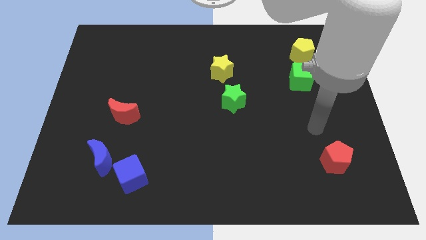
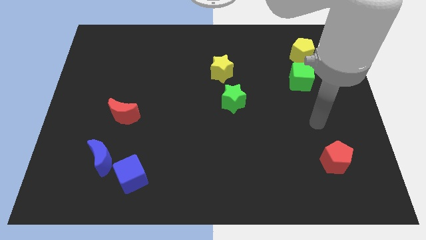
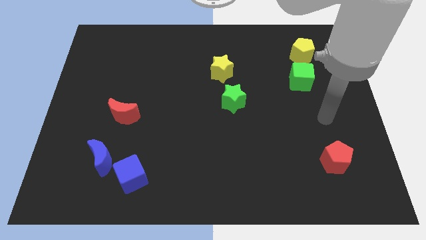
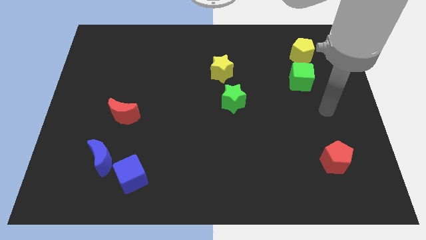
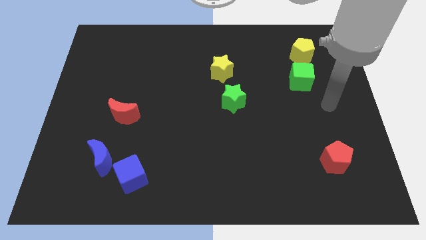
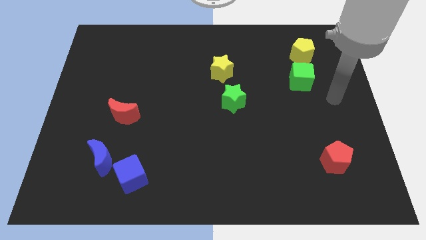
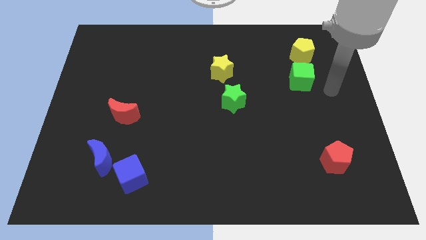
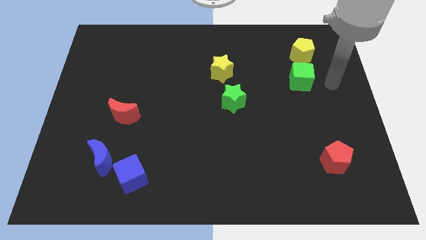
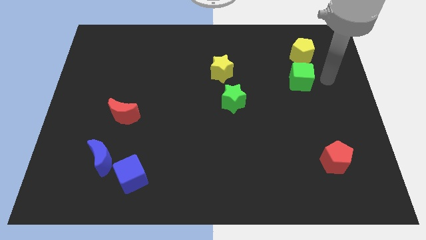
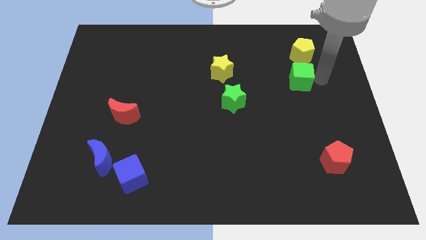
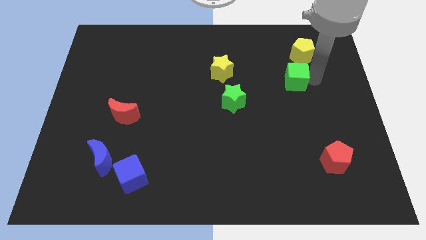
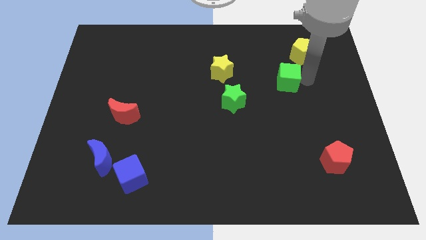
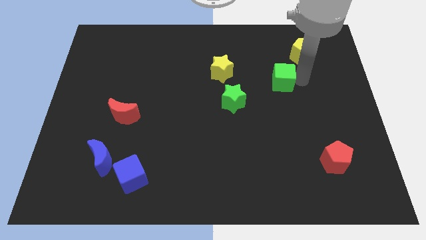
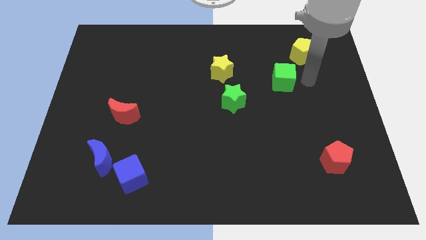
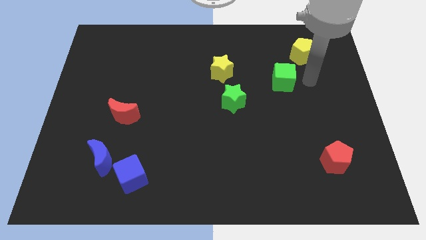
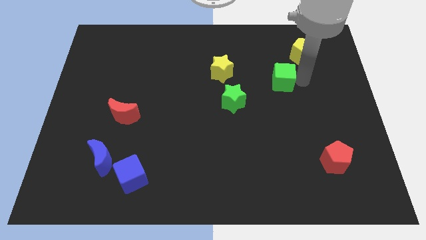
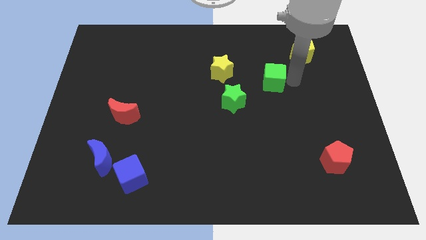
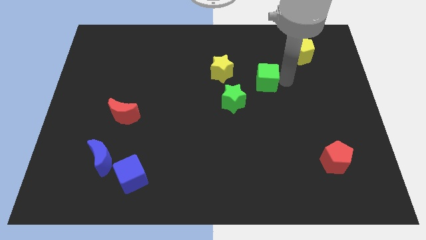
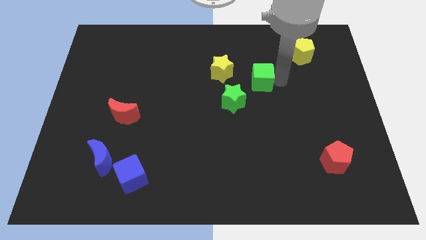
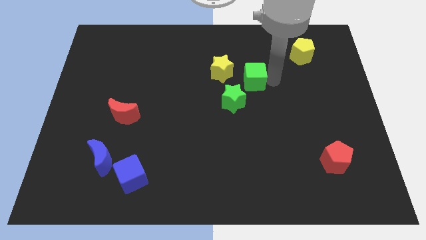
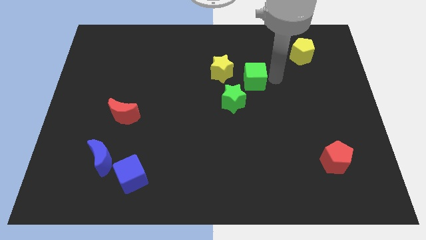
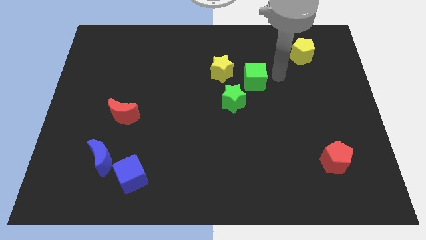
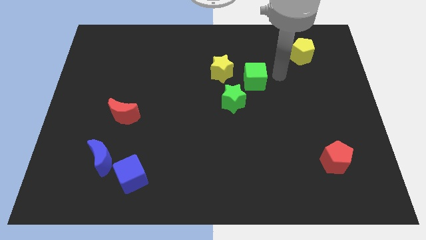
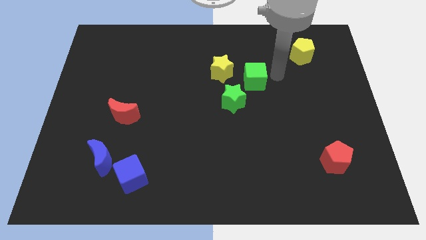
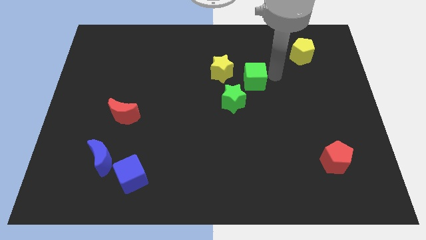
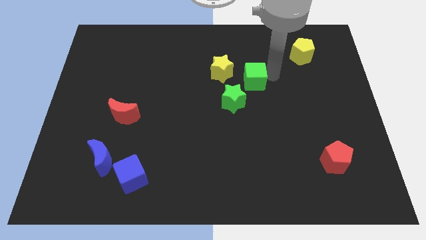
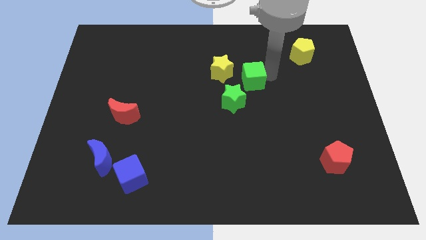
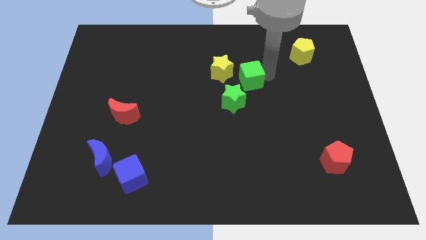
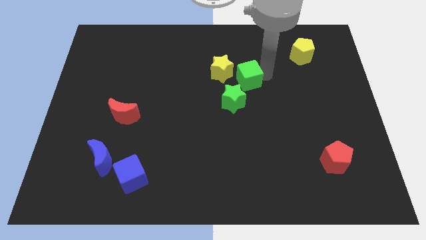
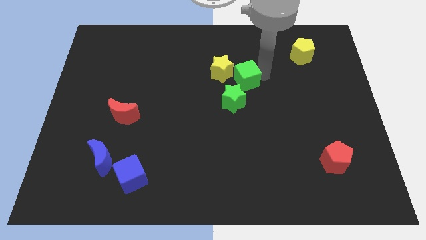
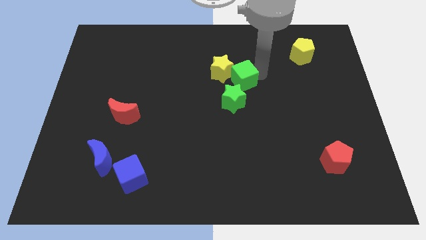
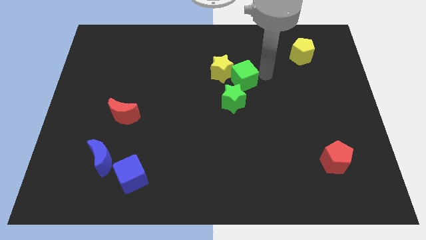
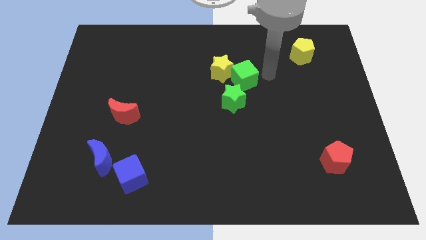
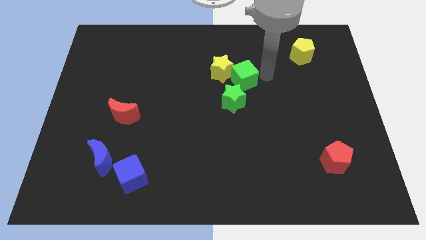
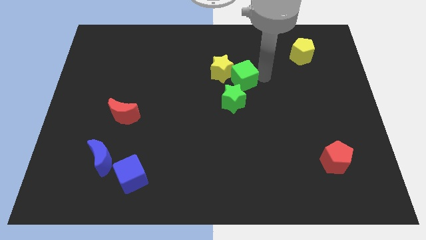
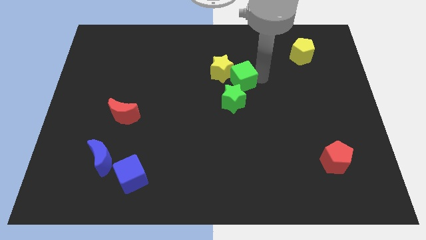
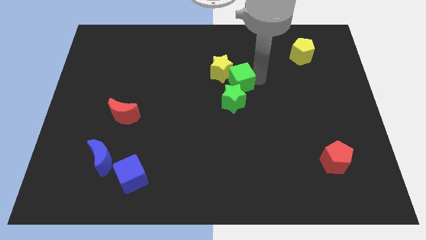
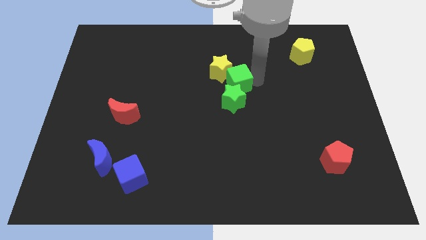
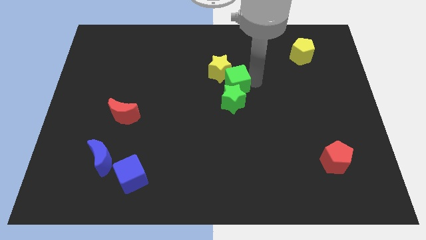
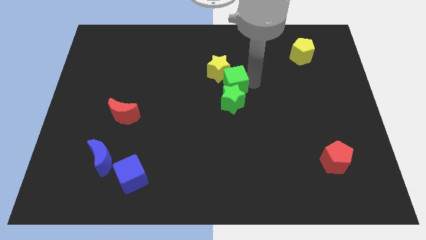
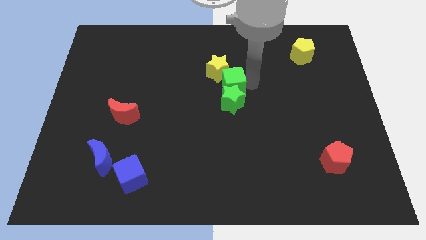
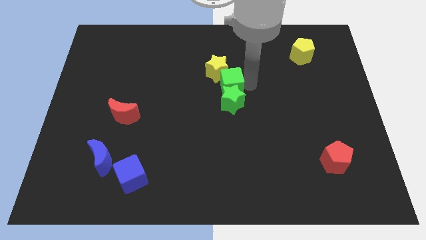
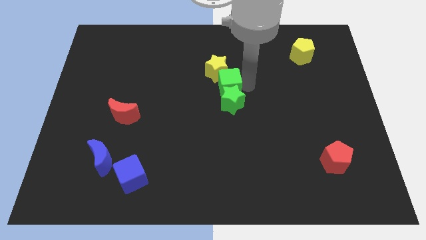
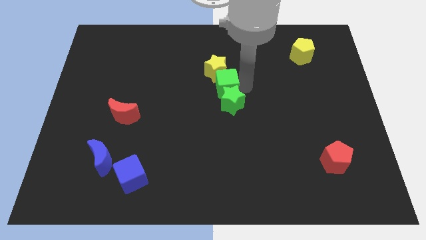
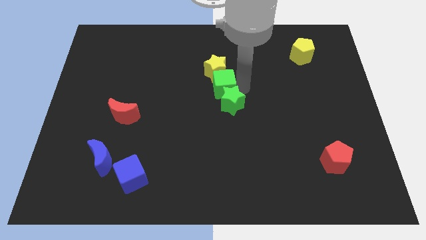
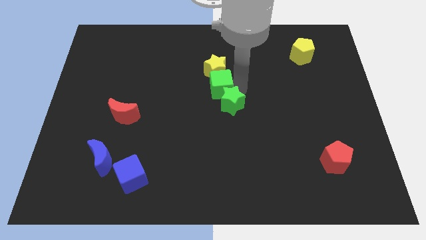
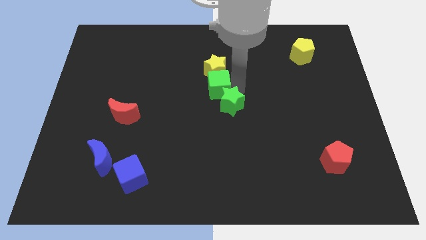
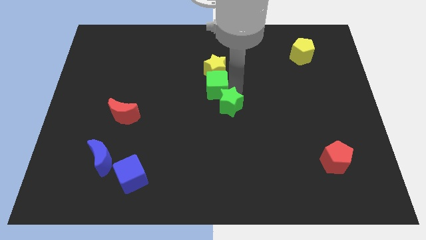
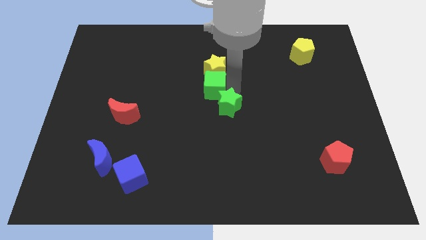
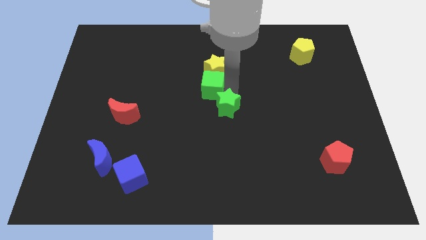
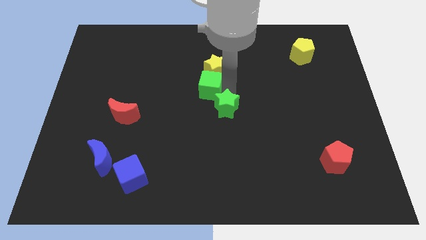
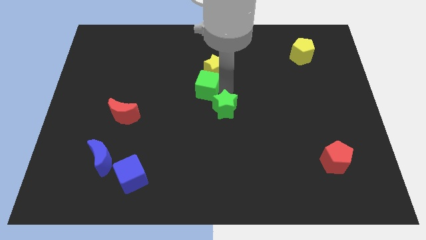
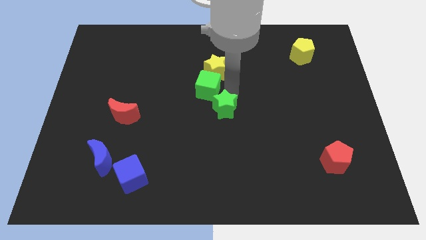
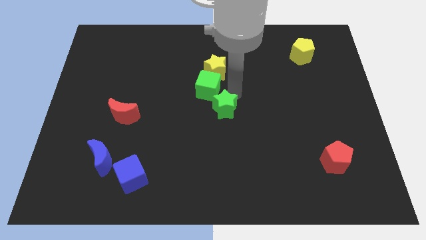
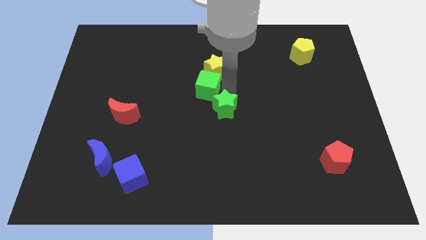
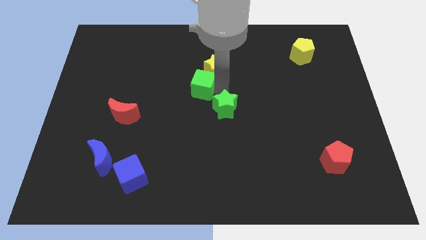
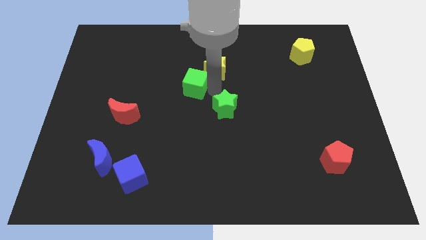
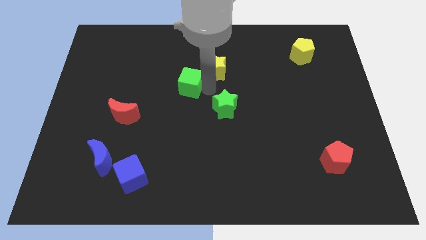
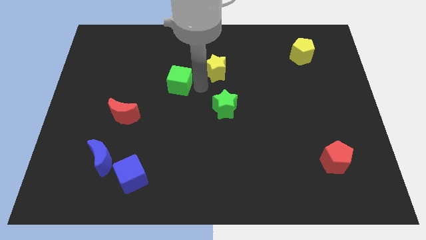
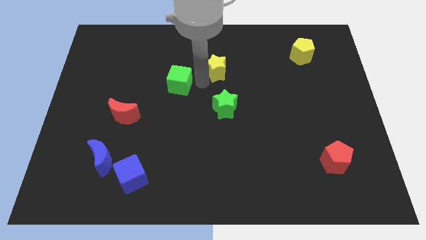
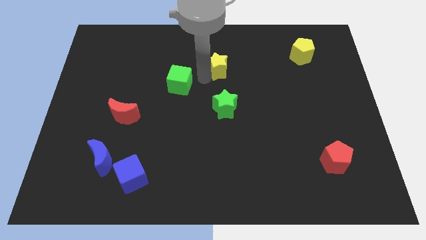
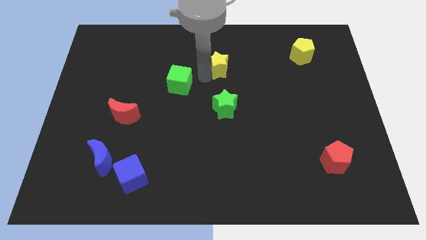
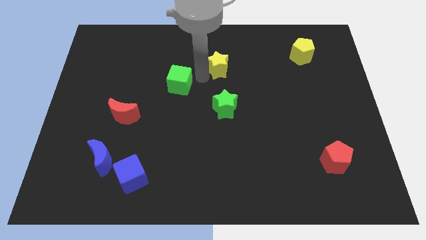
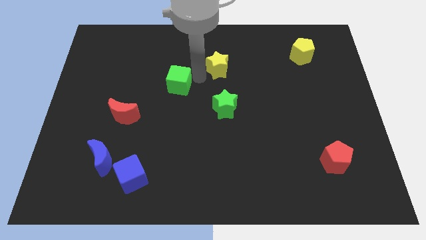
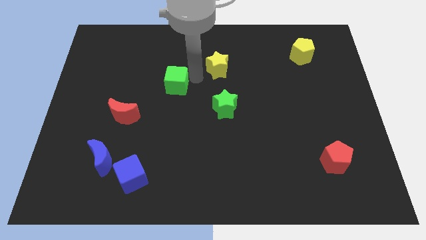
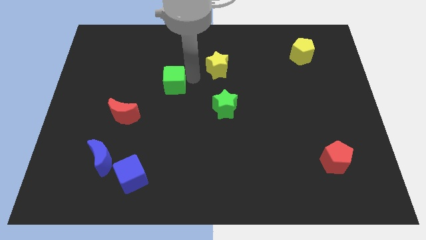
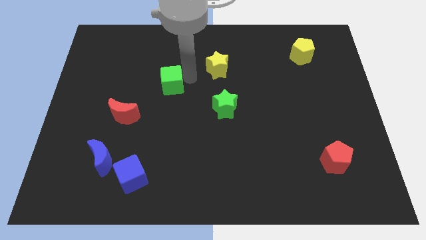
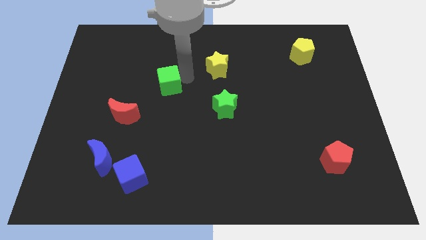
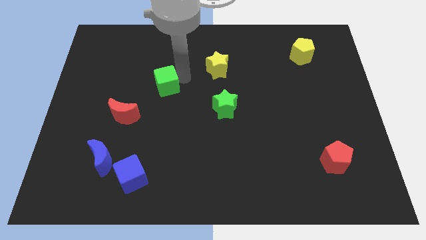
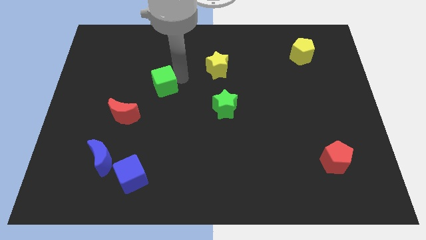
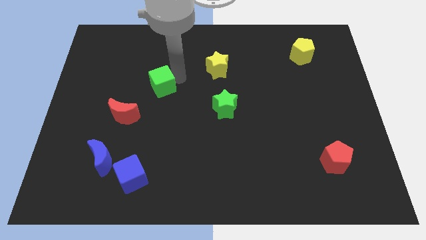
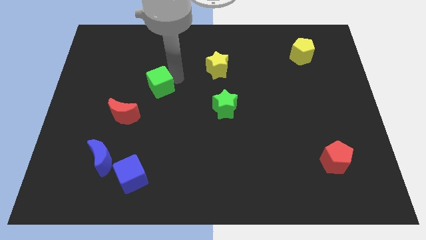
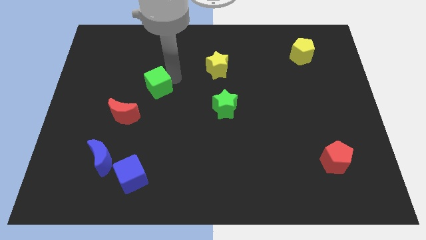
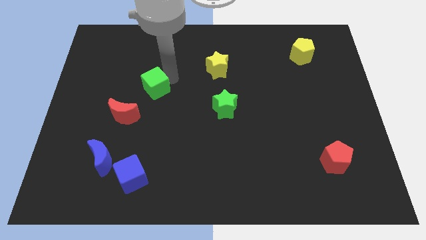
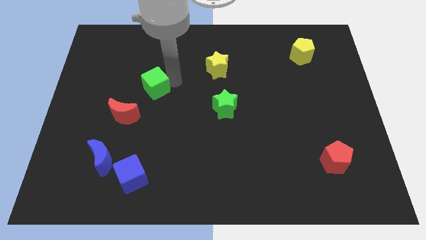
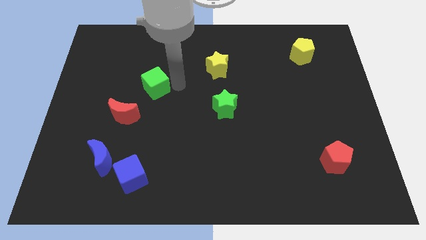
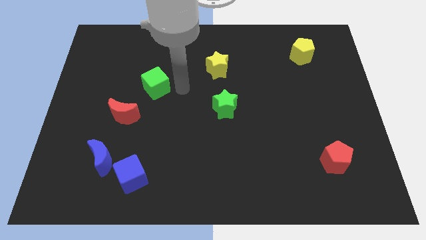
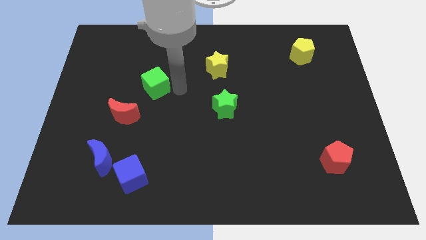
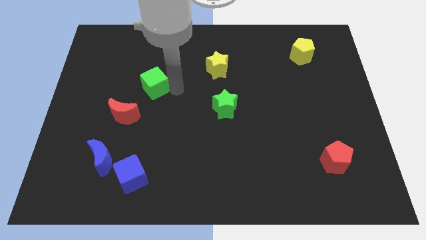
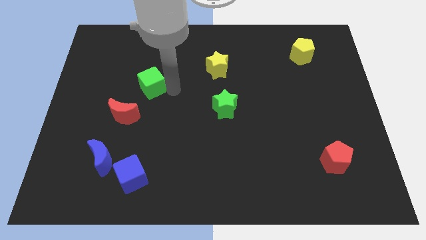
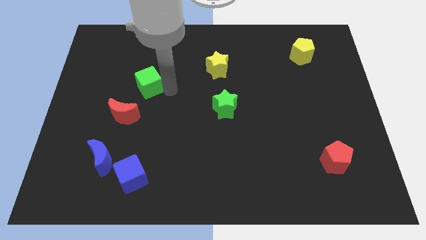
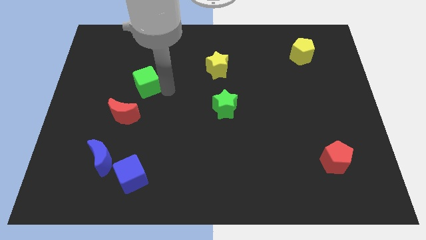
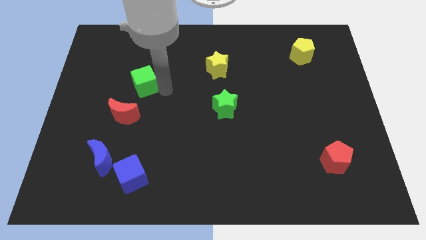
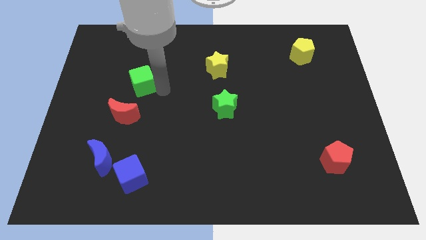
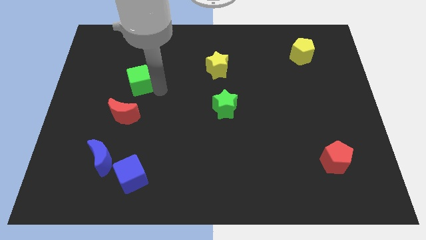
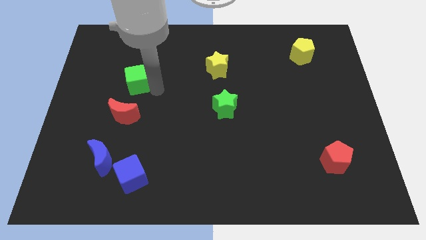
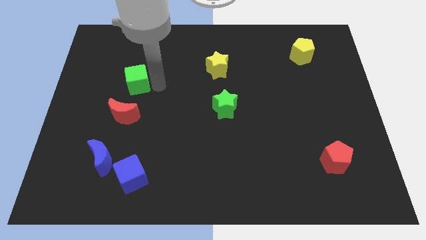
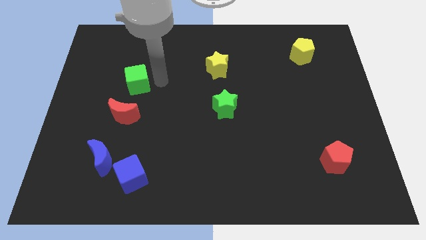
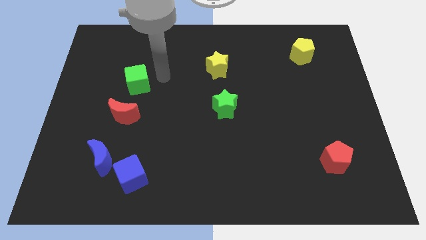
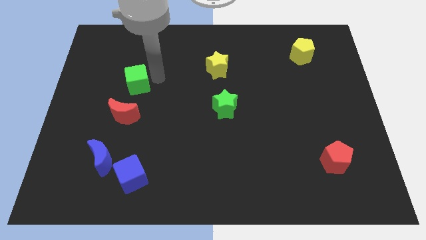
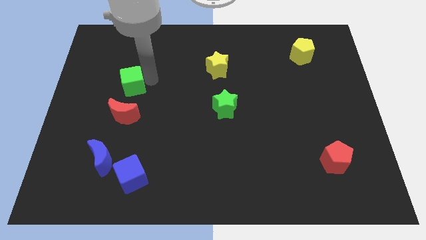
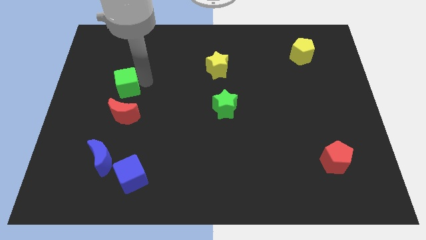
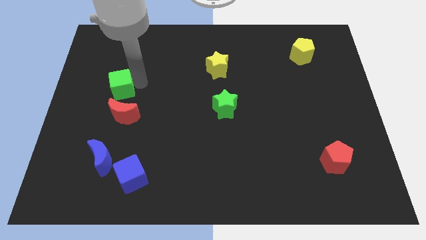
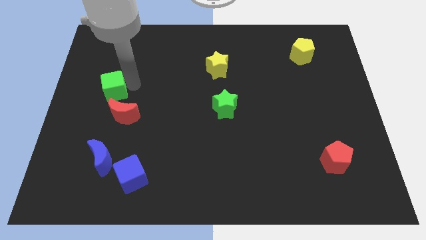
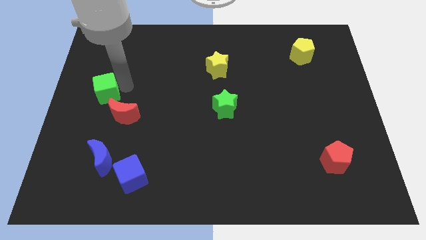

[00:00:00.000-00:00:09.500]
push the green cube to the left side
